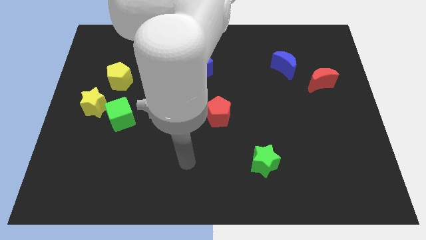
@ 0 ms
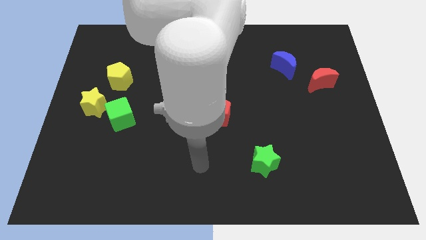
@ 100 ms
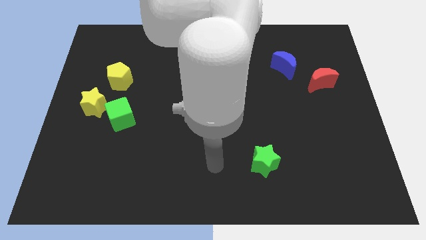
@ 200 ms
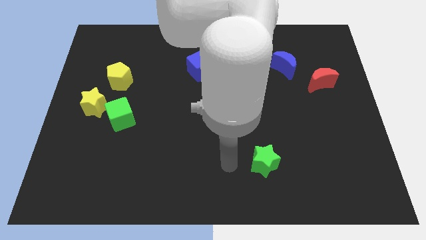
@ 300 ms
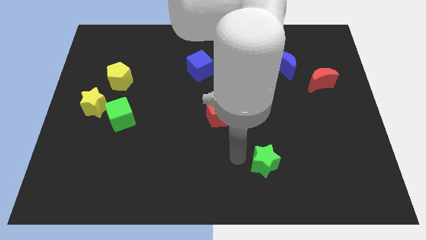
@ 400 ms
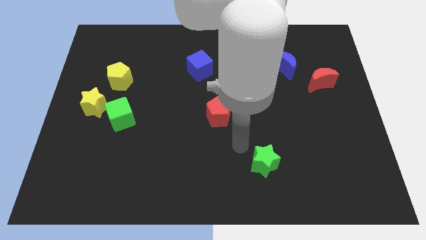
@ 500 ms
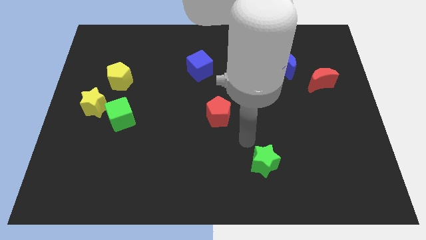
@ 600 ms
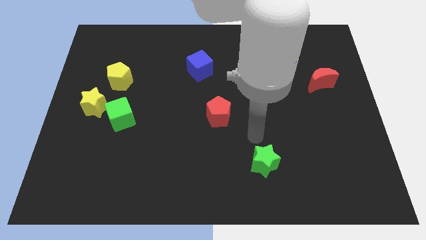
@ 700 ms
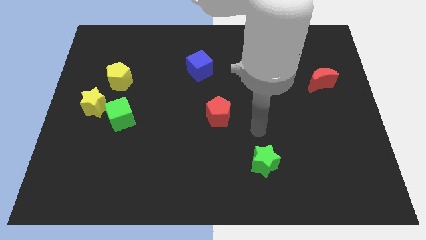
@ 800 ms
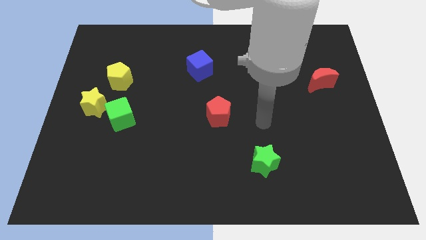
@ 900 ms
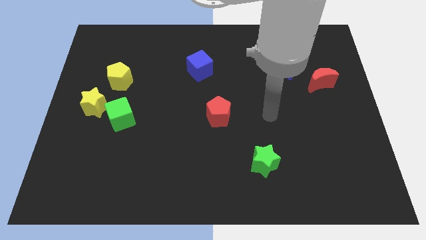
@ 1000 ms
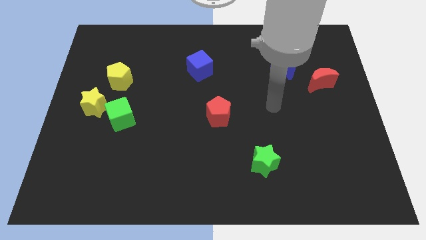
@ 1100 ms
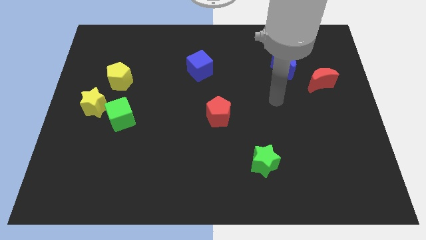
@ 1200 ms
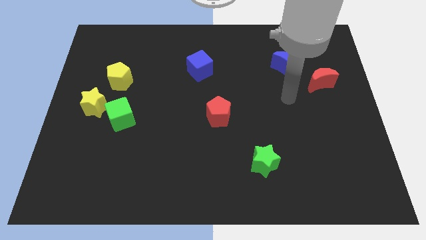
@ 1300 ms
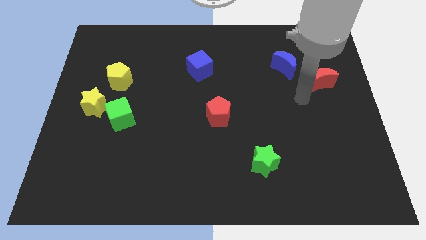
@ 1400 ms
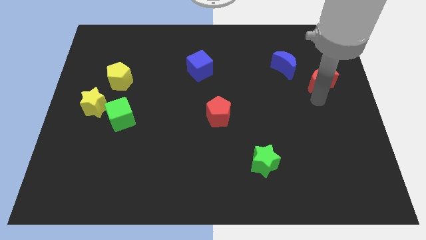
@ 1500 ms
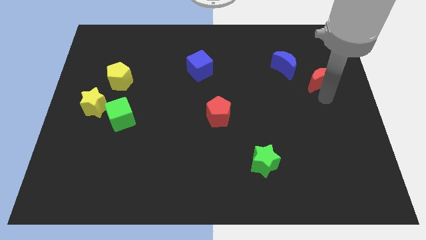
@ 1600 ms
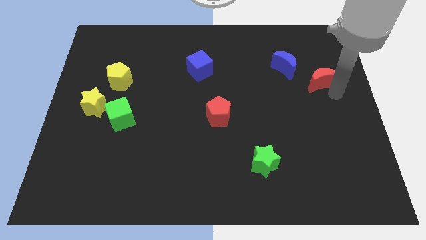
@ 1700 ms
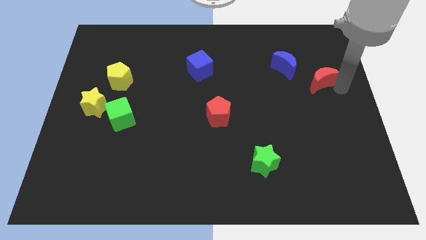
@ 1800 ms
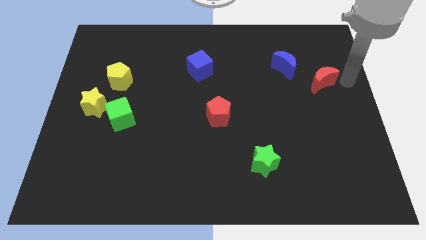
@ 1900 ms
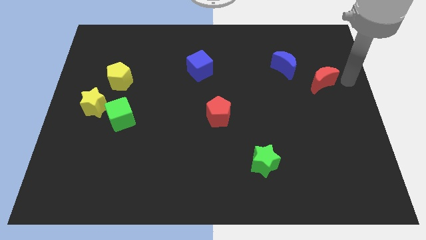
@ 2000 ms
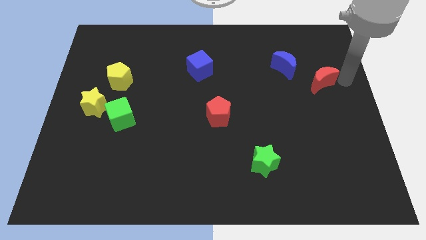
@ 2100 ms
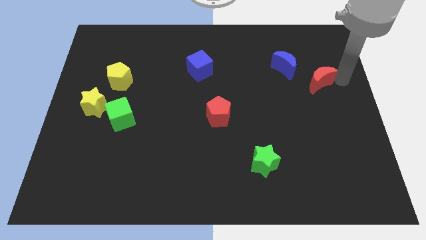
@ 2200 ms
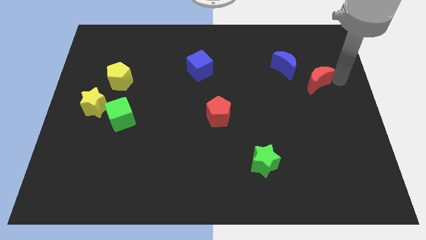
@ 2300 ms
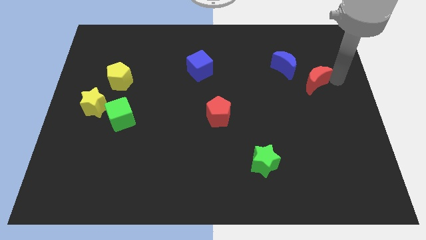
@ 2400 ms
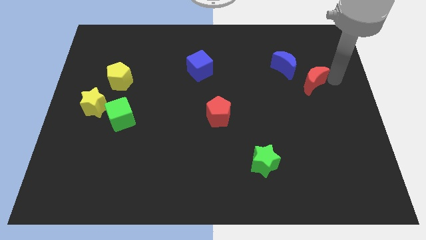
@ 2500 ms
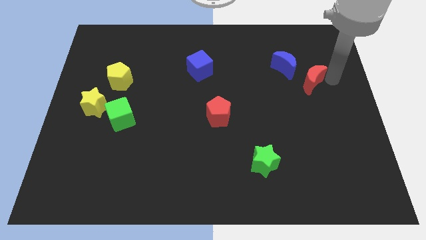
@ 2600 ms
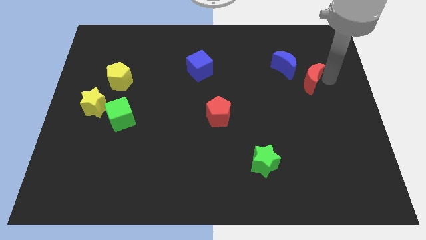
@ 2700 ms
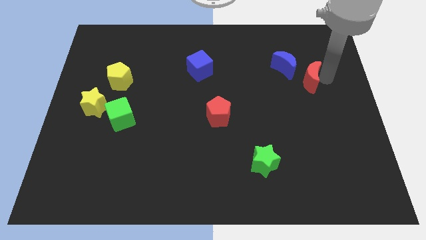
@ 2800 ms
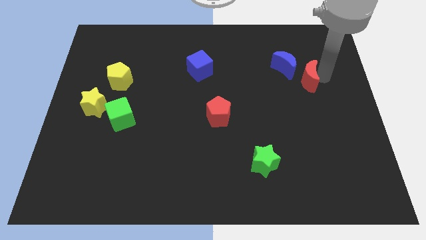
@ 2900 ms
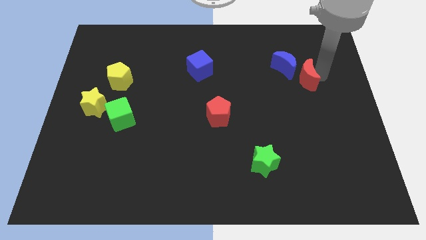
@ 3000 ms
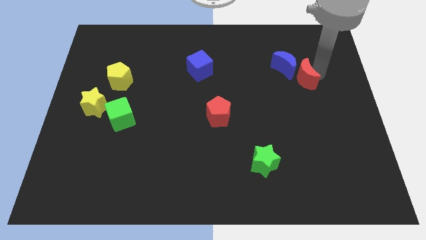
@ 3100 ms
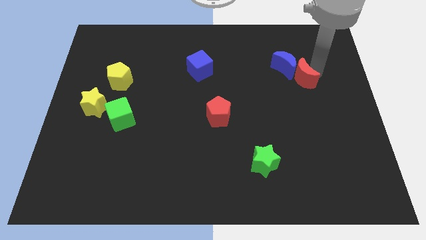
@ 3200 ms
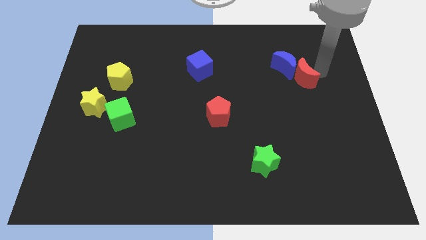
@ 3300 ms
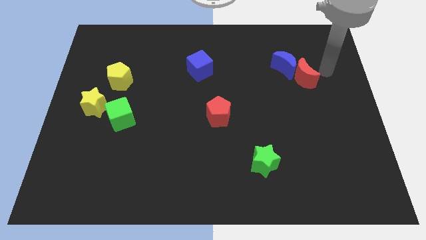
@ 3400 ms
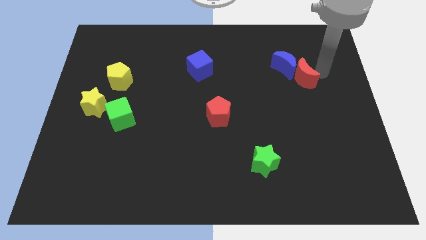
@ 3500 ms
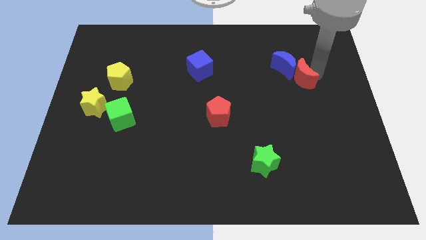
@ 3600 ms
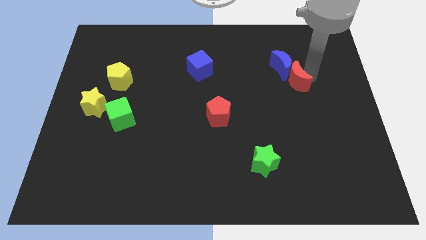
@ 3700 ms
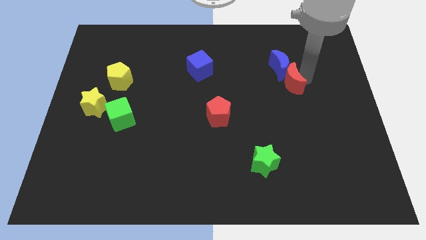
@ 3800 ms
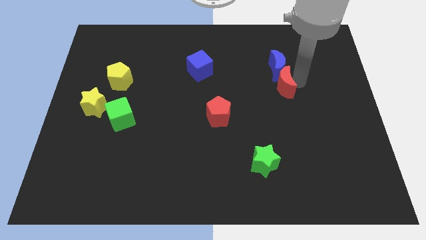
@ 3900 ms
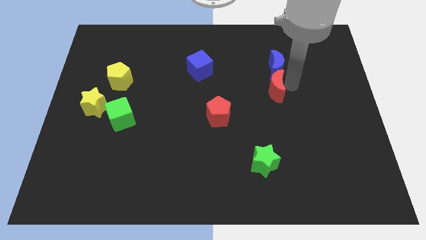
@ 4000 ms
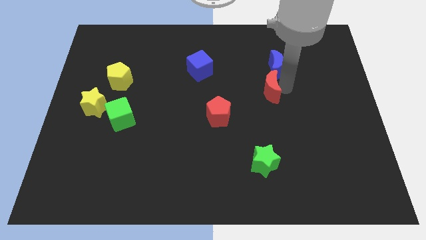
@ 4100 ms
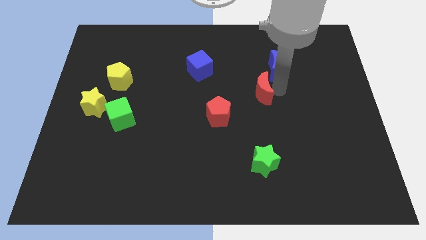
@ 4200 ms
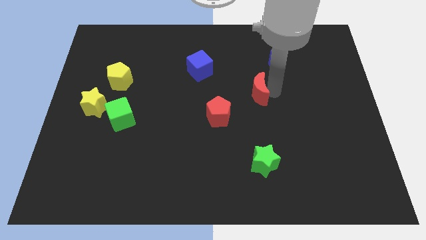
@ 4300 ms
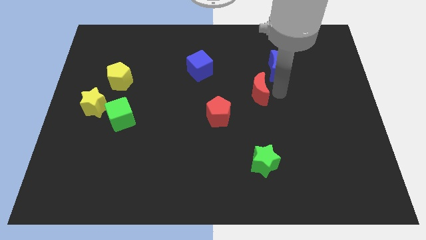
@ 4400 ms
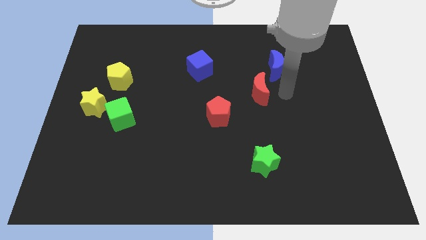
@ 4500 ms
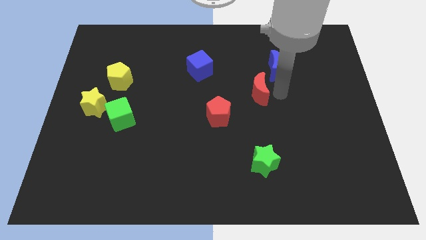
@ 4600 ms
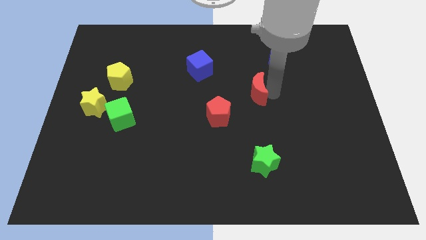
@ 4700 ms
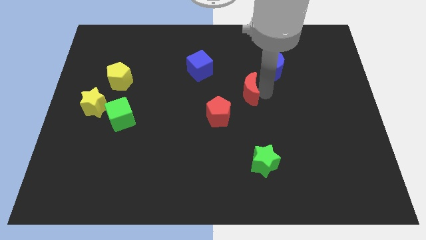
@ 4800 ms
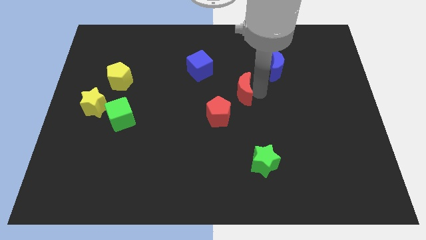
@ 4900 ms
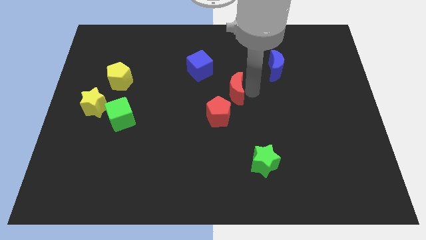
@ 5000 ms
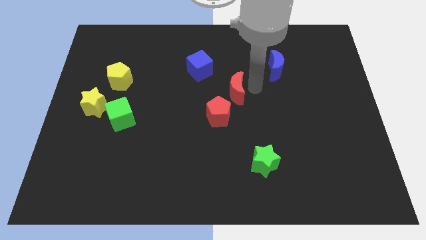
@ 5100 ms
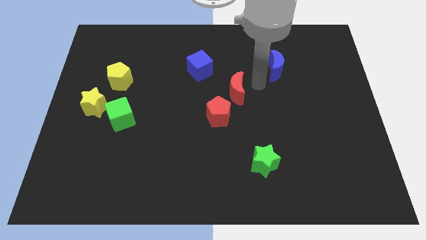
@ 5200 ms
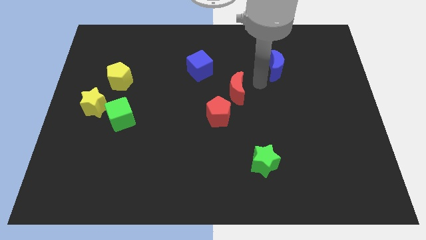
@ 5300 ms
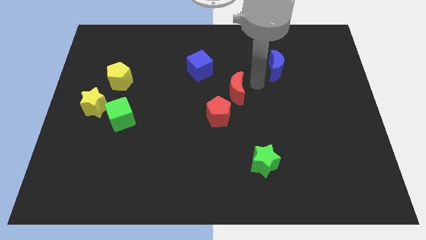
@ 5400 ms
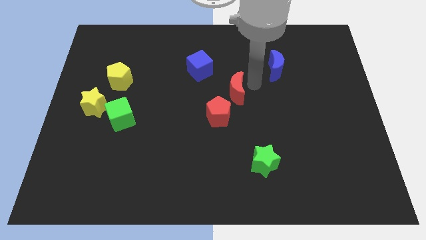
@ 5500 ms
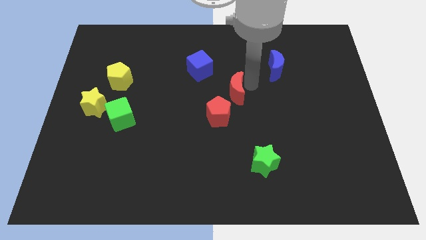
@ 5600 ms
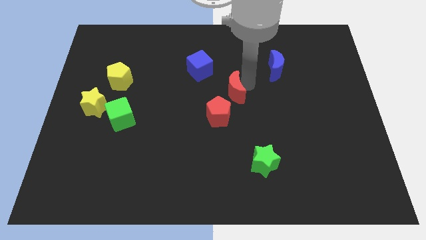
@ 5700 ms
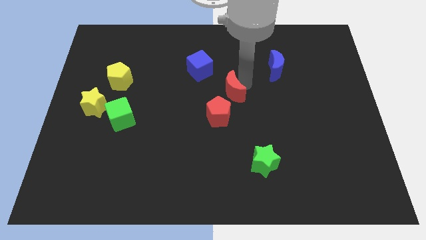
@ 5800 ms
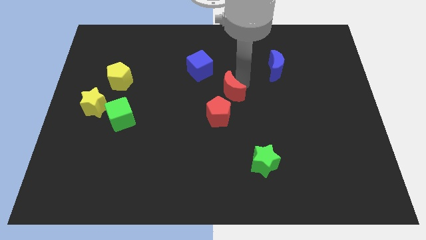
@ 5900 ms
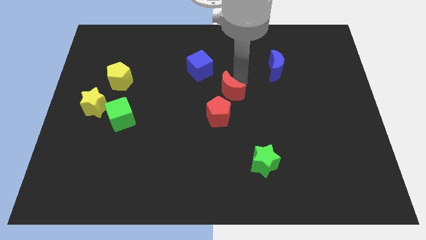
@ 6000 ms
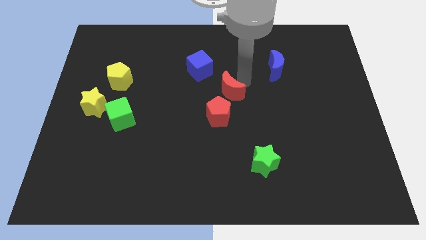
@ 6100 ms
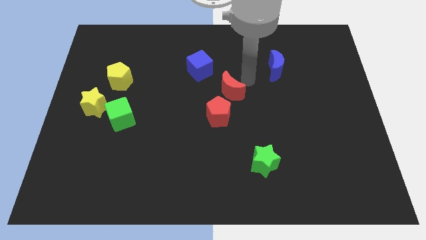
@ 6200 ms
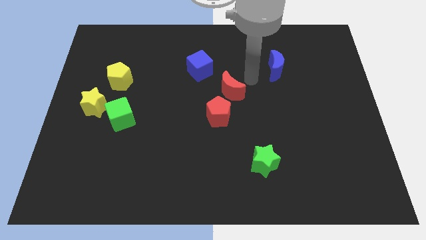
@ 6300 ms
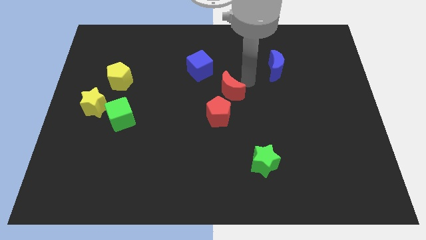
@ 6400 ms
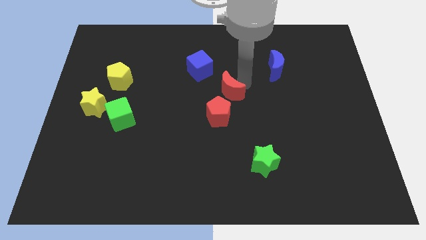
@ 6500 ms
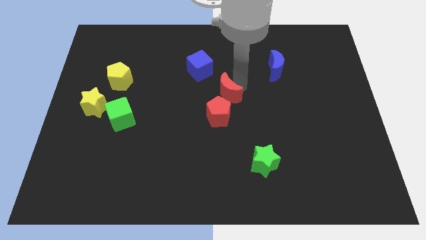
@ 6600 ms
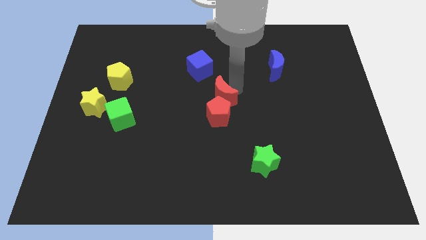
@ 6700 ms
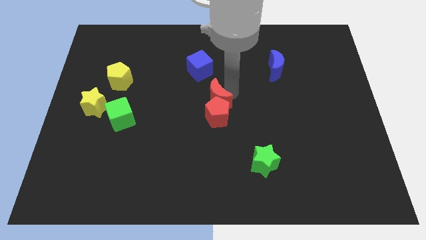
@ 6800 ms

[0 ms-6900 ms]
move the red moon below the blue cube
